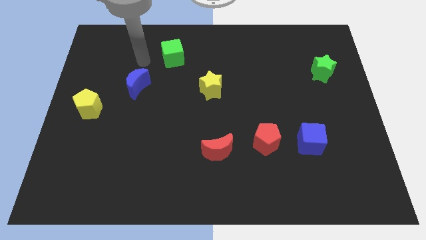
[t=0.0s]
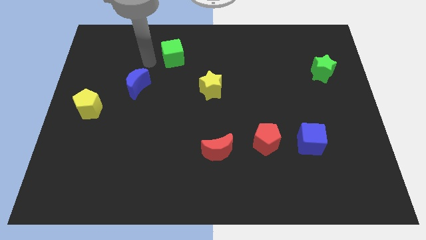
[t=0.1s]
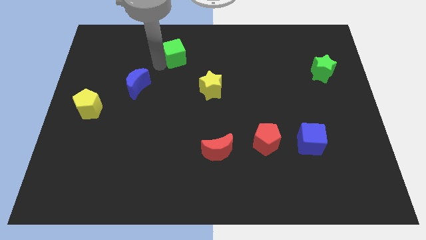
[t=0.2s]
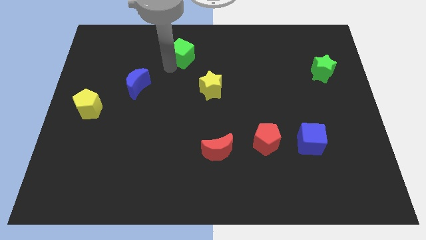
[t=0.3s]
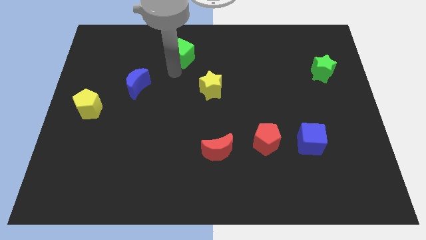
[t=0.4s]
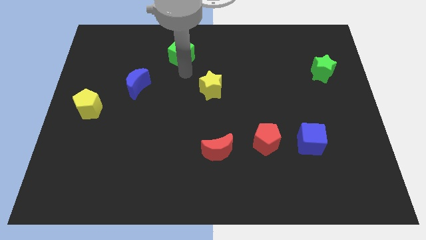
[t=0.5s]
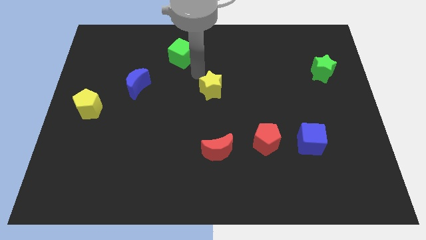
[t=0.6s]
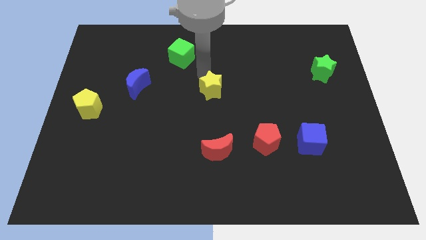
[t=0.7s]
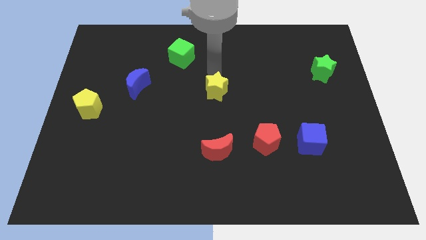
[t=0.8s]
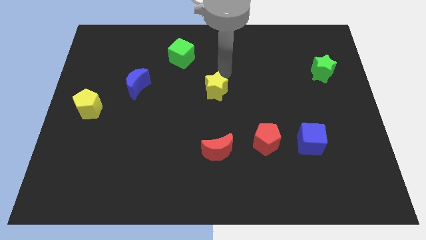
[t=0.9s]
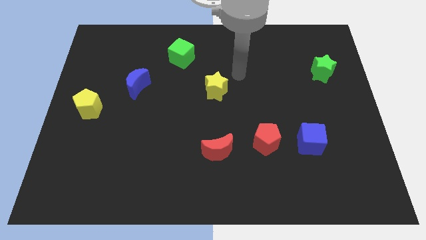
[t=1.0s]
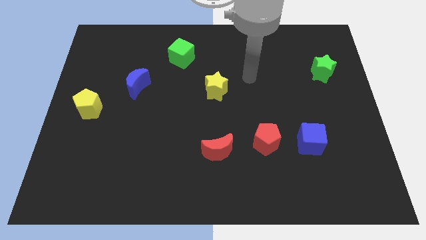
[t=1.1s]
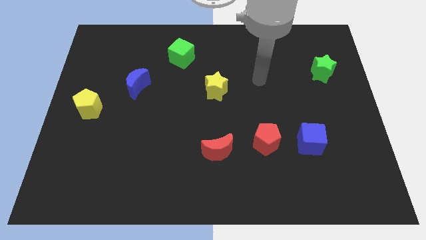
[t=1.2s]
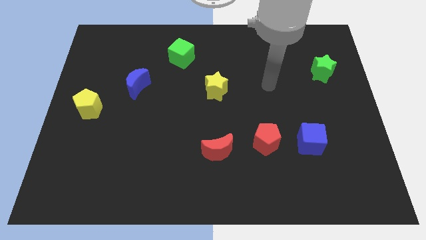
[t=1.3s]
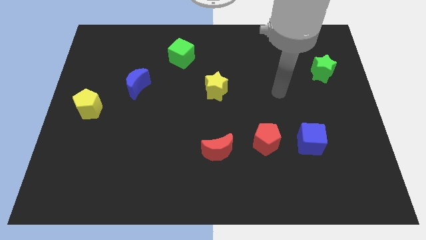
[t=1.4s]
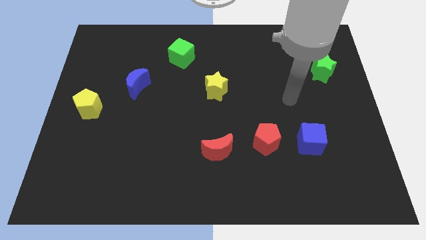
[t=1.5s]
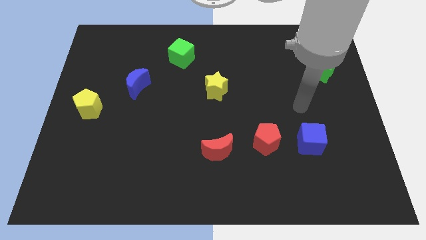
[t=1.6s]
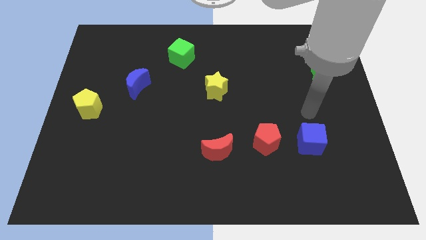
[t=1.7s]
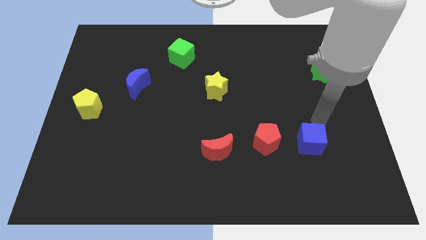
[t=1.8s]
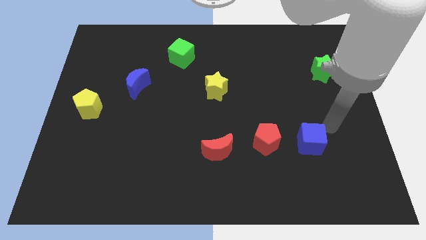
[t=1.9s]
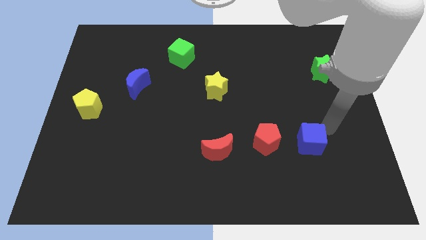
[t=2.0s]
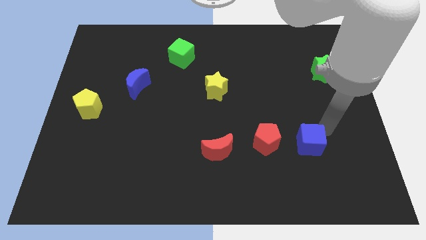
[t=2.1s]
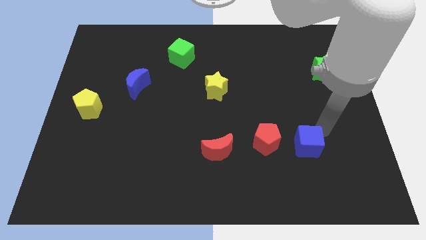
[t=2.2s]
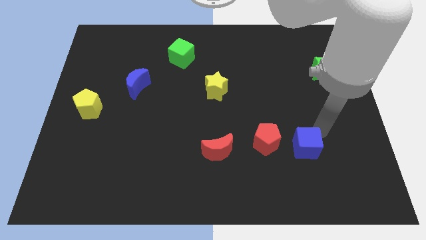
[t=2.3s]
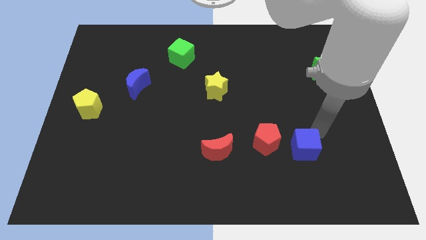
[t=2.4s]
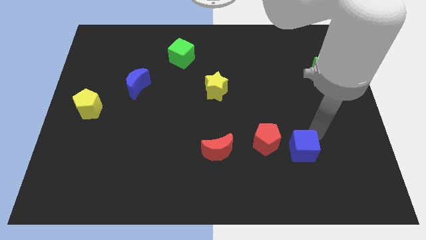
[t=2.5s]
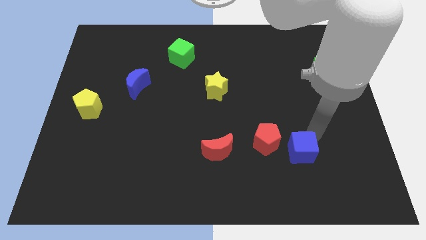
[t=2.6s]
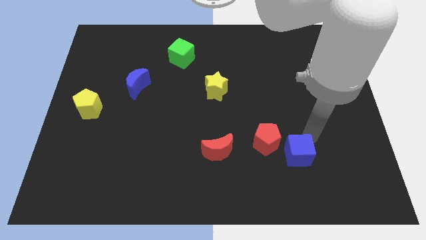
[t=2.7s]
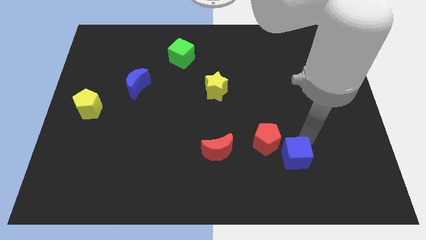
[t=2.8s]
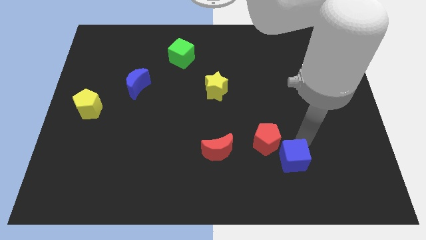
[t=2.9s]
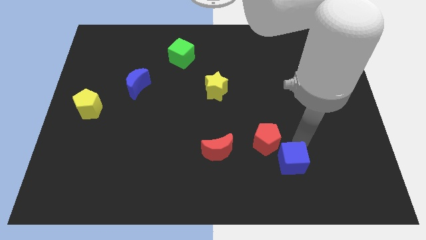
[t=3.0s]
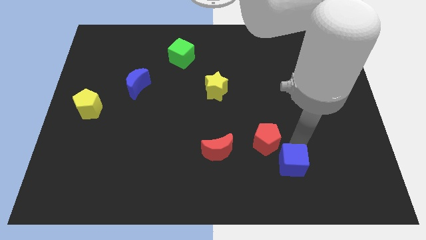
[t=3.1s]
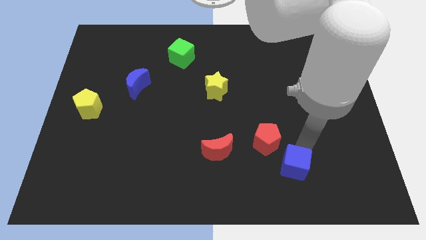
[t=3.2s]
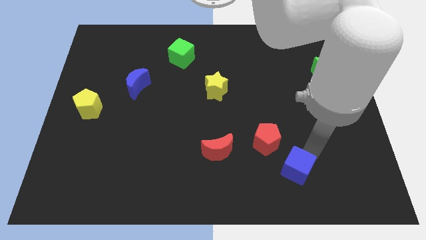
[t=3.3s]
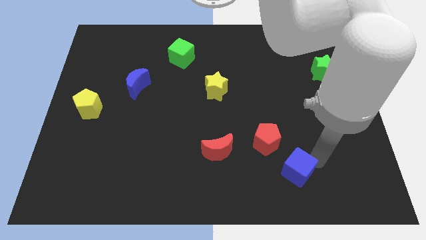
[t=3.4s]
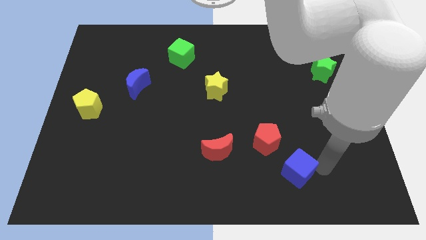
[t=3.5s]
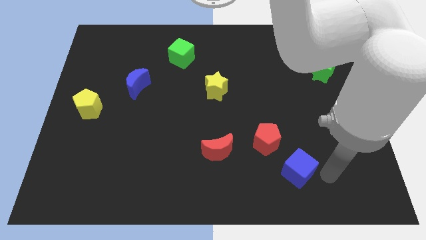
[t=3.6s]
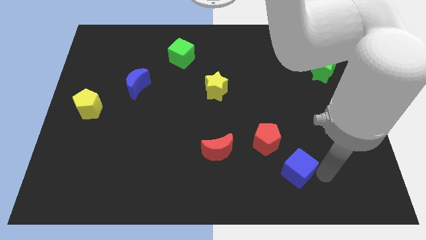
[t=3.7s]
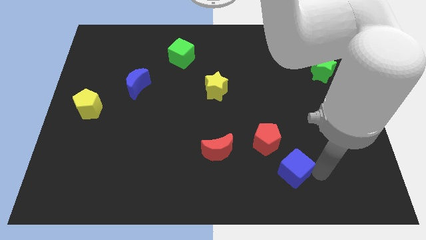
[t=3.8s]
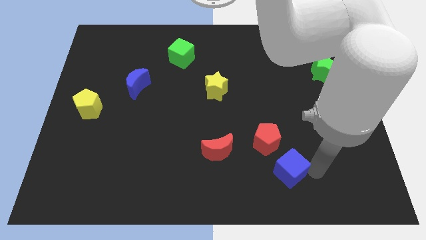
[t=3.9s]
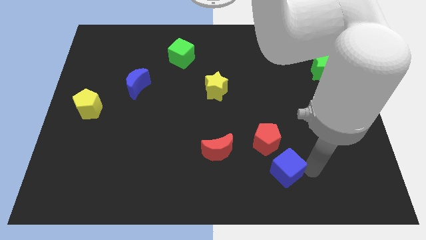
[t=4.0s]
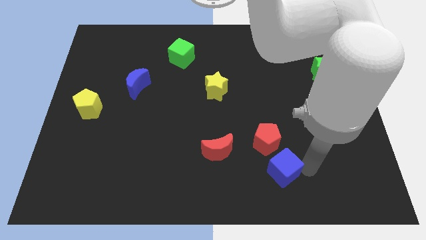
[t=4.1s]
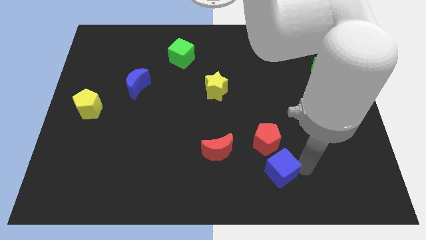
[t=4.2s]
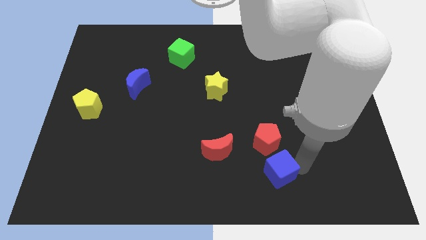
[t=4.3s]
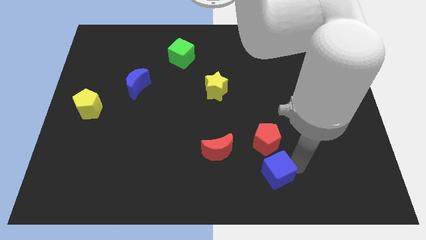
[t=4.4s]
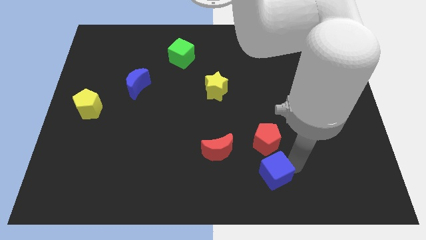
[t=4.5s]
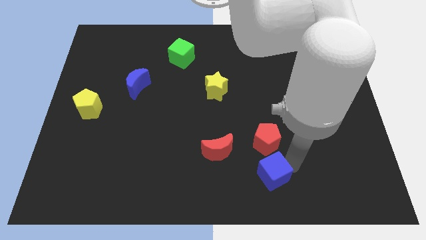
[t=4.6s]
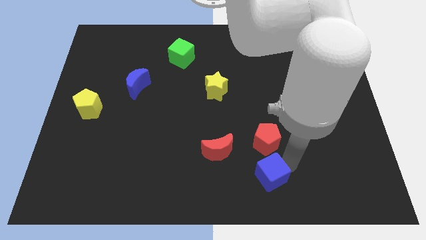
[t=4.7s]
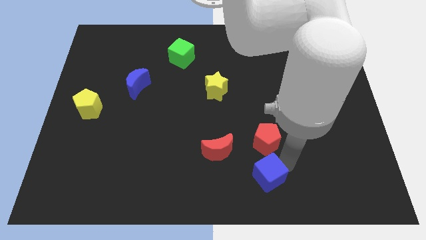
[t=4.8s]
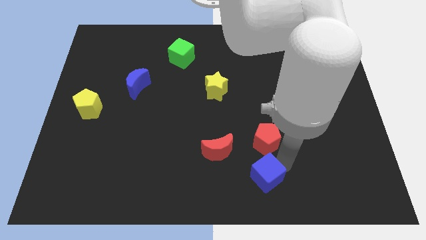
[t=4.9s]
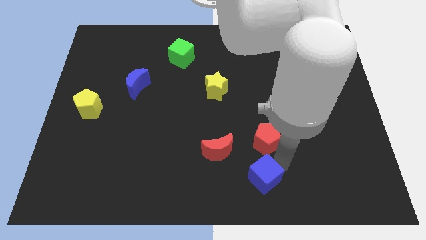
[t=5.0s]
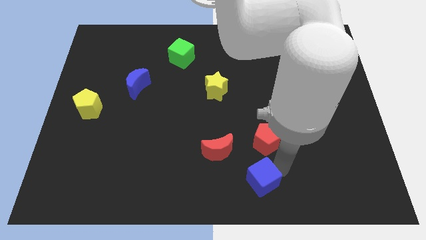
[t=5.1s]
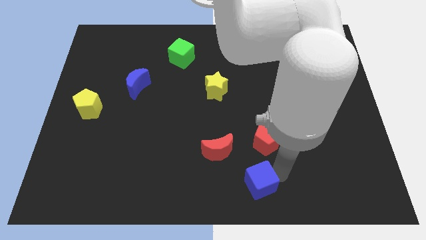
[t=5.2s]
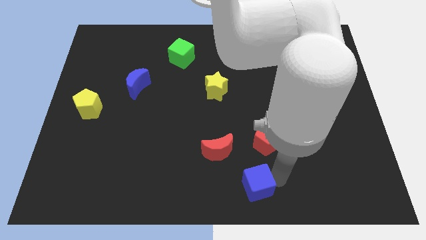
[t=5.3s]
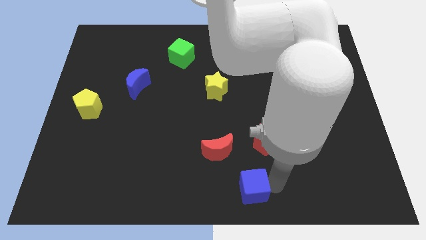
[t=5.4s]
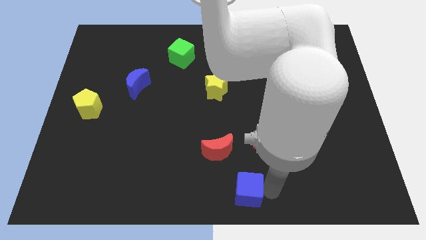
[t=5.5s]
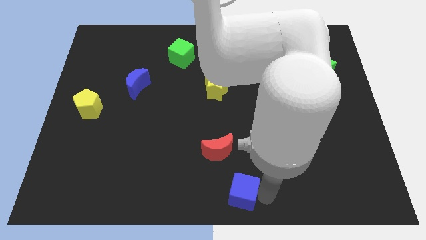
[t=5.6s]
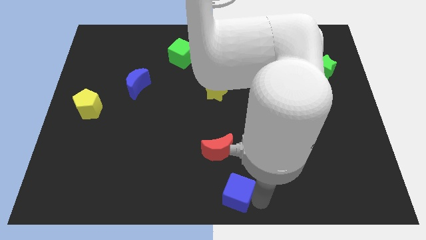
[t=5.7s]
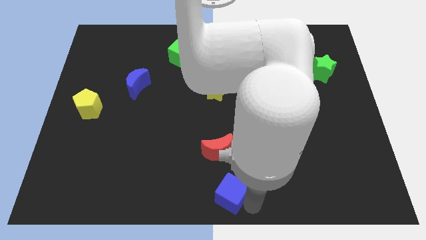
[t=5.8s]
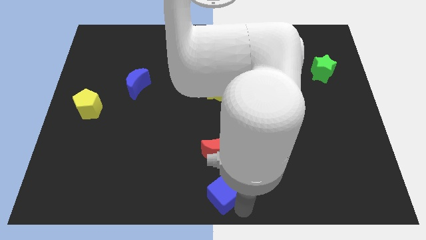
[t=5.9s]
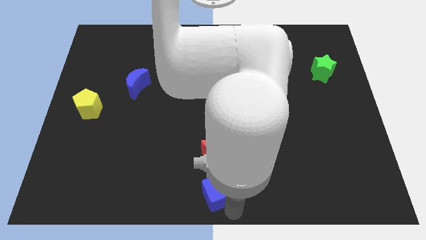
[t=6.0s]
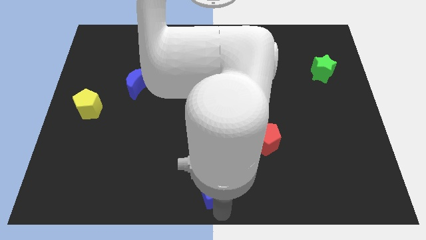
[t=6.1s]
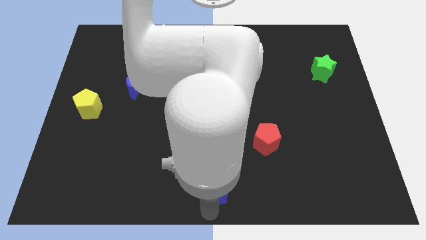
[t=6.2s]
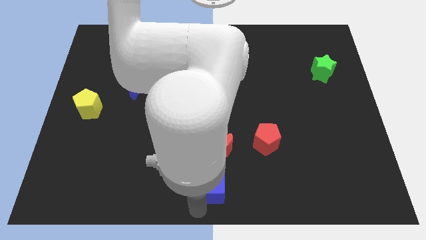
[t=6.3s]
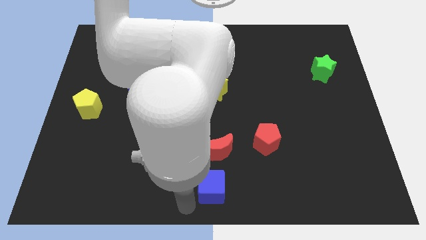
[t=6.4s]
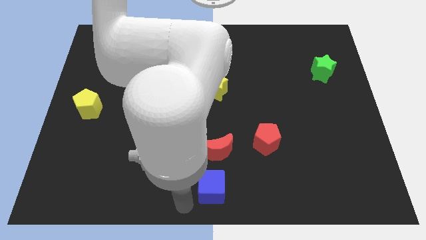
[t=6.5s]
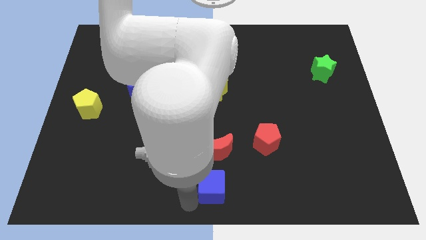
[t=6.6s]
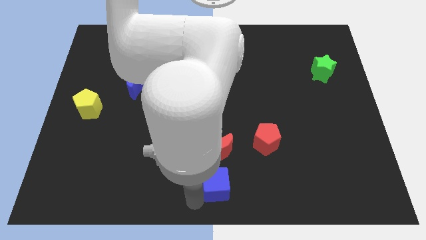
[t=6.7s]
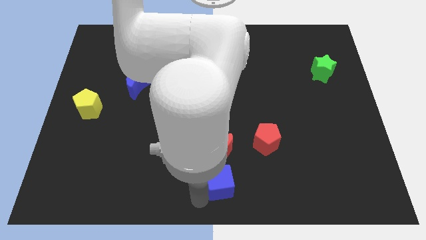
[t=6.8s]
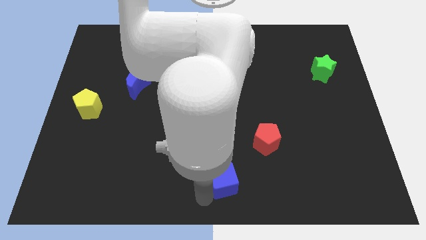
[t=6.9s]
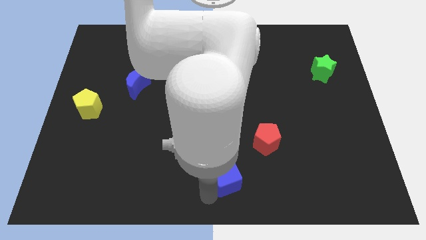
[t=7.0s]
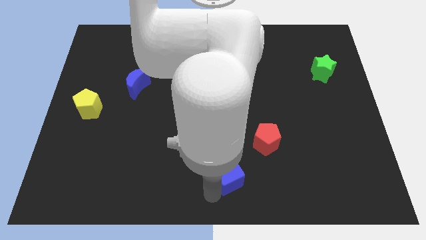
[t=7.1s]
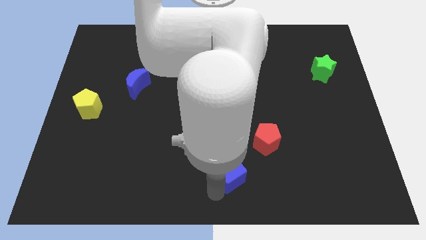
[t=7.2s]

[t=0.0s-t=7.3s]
push the blue cube to the red moon

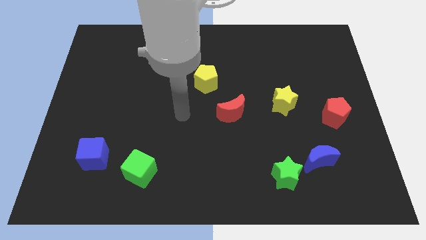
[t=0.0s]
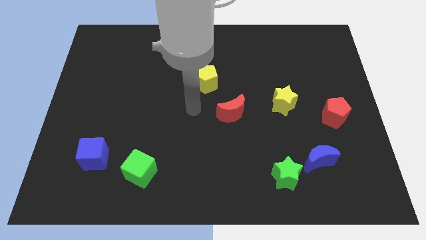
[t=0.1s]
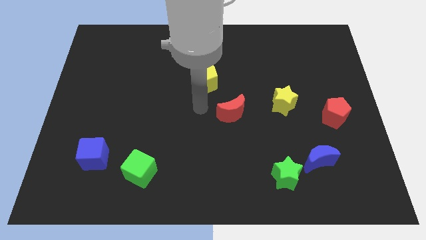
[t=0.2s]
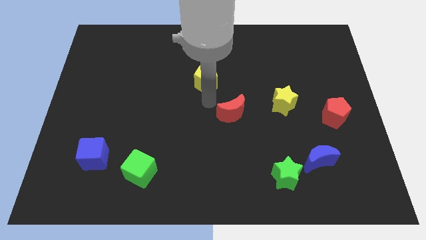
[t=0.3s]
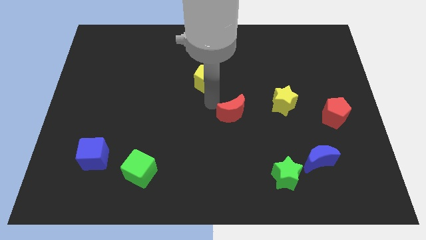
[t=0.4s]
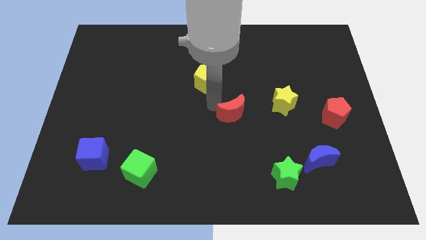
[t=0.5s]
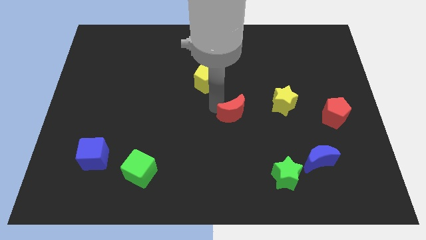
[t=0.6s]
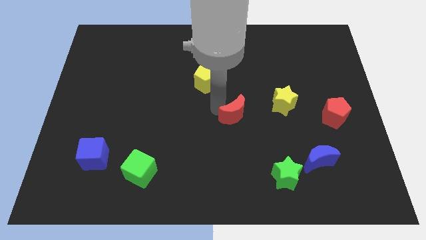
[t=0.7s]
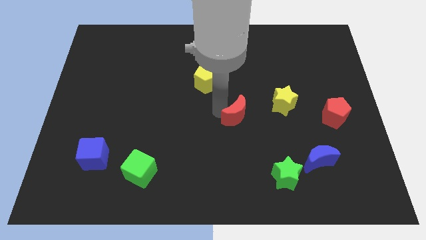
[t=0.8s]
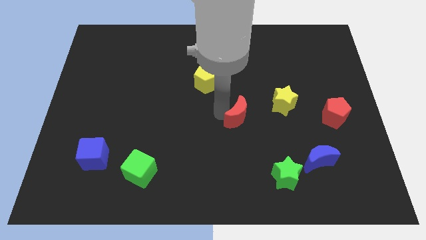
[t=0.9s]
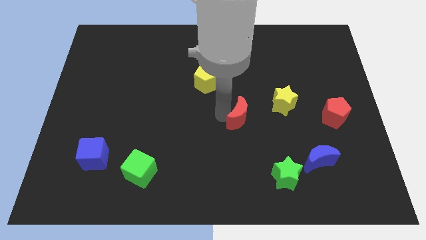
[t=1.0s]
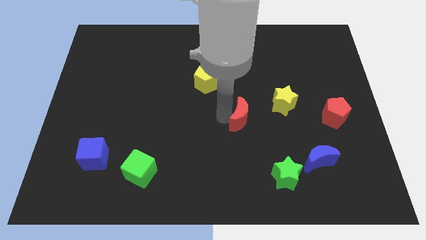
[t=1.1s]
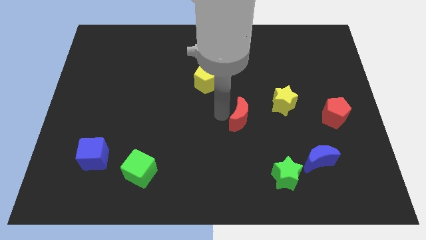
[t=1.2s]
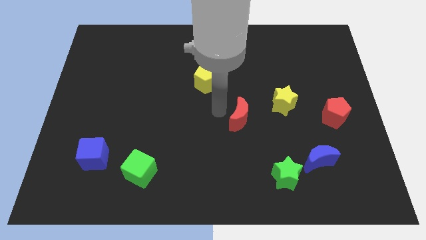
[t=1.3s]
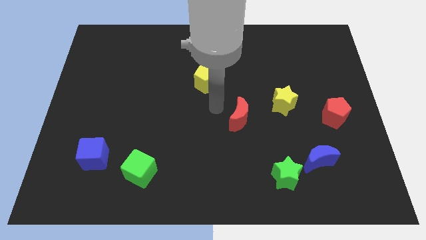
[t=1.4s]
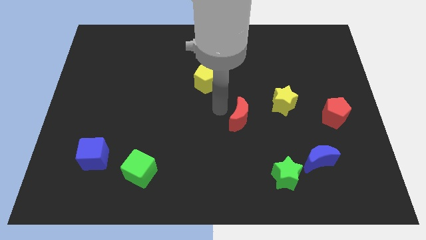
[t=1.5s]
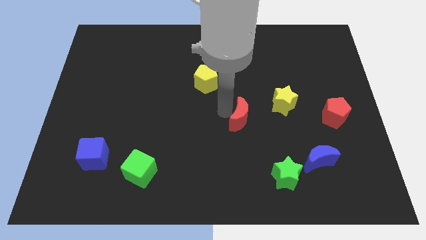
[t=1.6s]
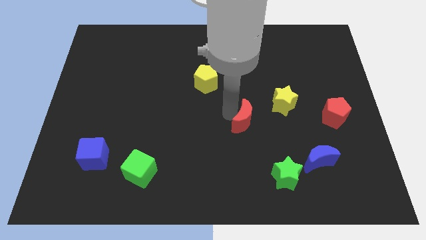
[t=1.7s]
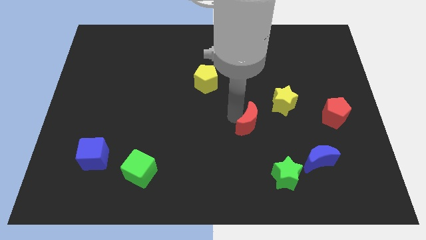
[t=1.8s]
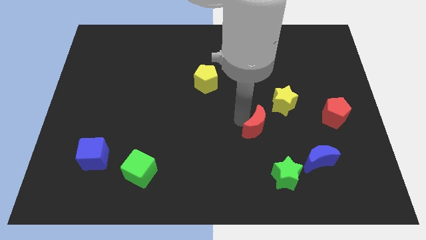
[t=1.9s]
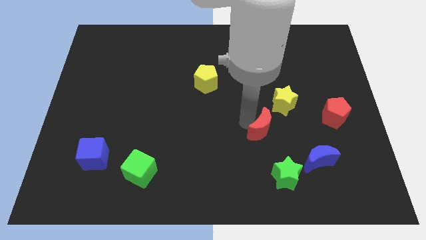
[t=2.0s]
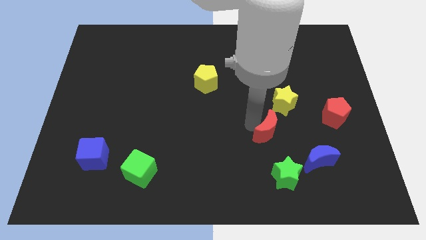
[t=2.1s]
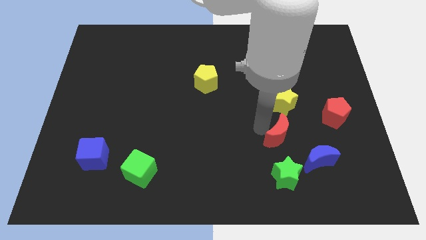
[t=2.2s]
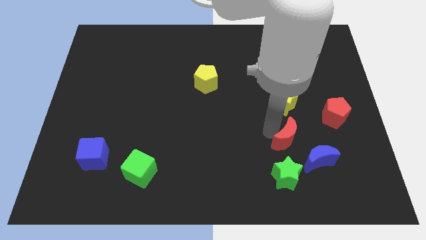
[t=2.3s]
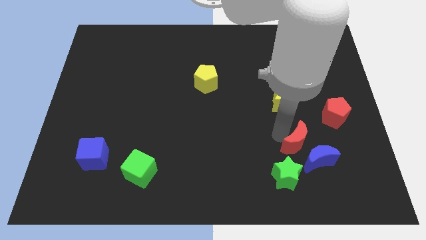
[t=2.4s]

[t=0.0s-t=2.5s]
push the red moon next to the blue moon
